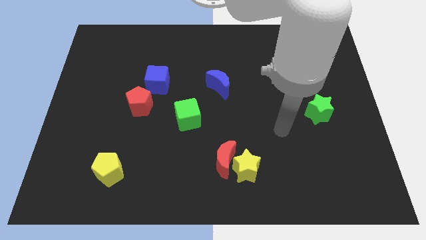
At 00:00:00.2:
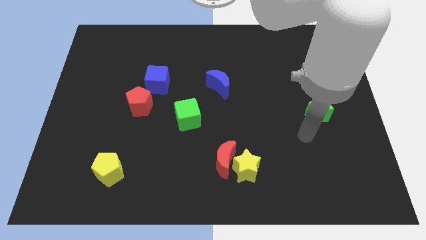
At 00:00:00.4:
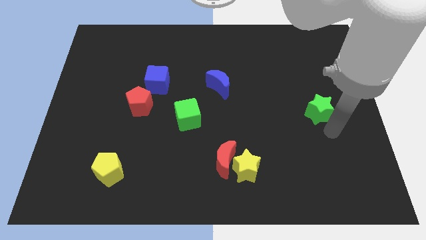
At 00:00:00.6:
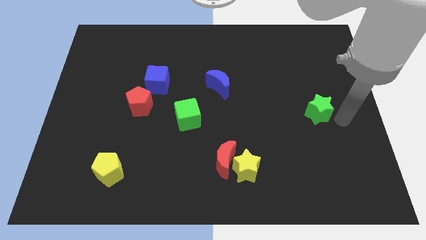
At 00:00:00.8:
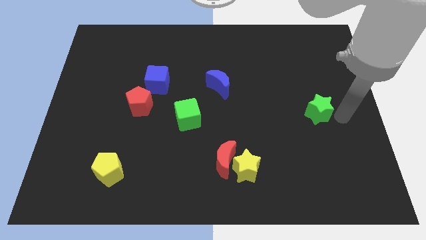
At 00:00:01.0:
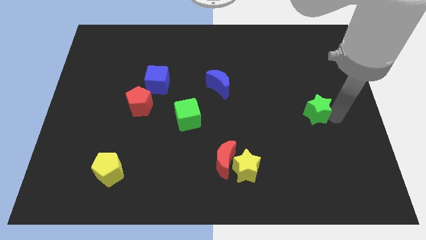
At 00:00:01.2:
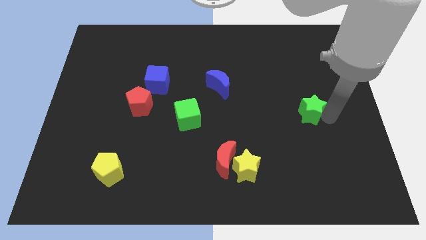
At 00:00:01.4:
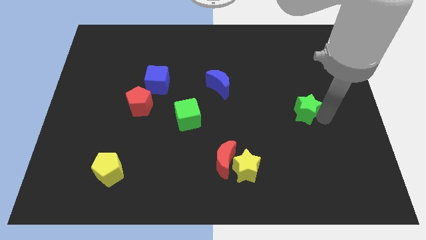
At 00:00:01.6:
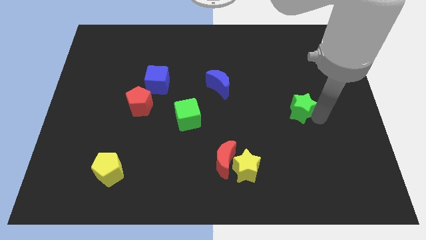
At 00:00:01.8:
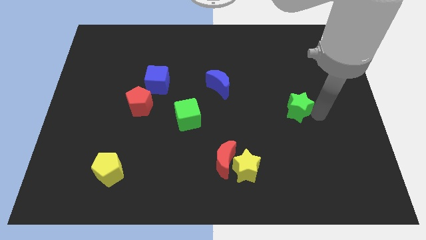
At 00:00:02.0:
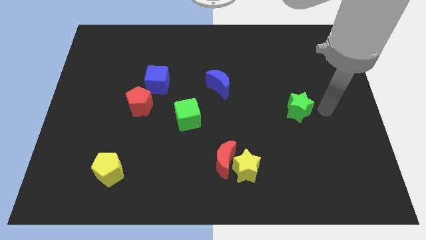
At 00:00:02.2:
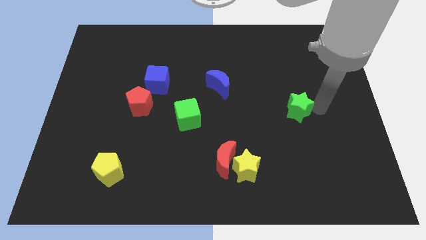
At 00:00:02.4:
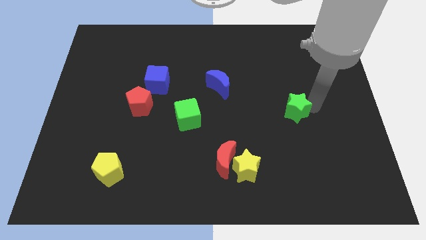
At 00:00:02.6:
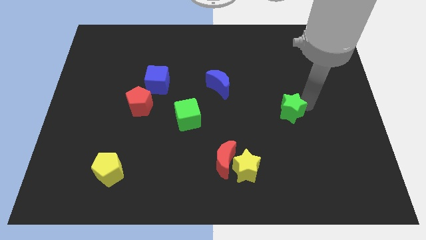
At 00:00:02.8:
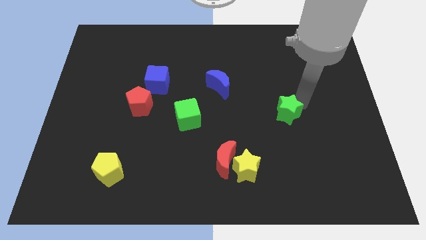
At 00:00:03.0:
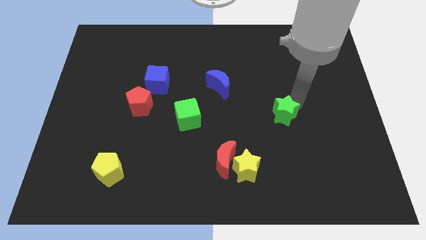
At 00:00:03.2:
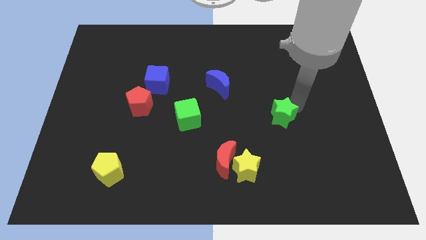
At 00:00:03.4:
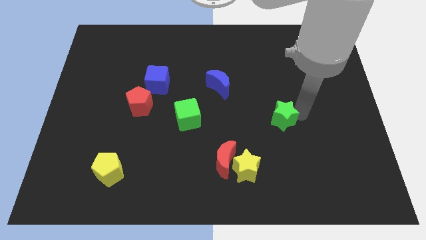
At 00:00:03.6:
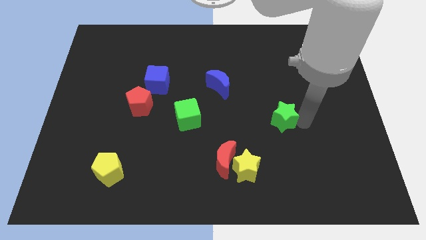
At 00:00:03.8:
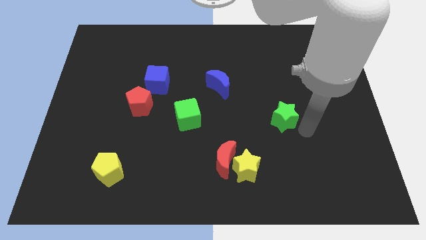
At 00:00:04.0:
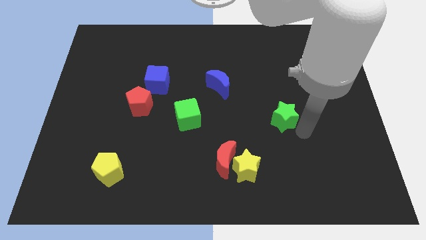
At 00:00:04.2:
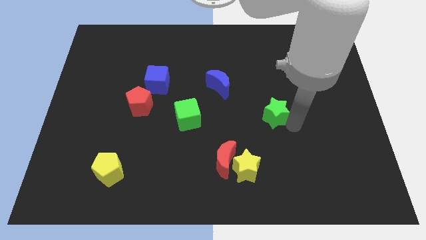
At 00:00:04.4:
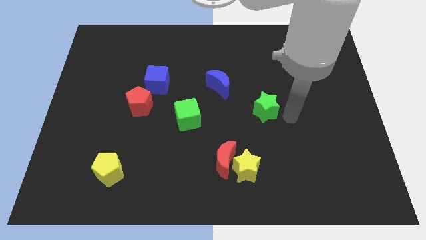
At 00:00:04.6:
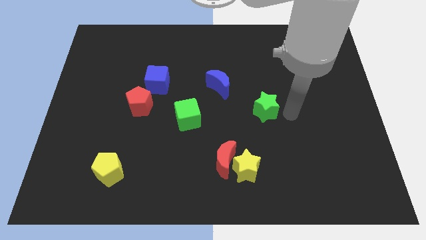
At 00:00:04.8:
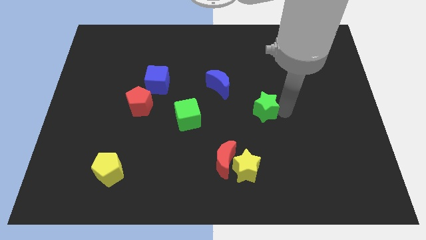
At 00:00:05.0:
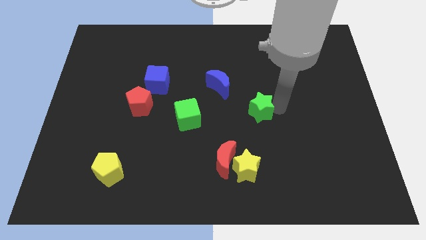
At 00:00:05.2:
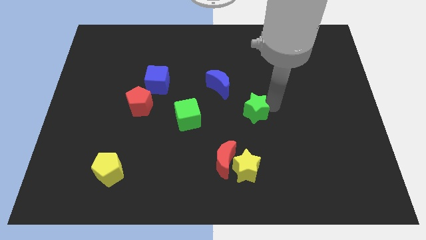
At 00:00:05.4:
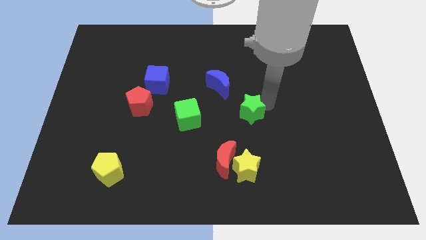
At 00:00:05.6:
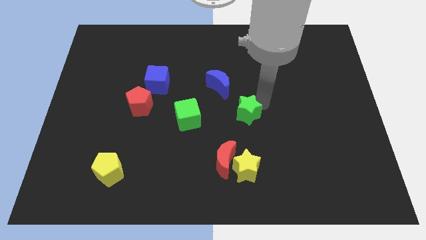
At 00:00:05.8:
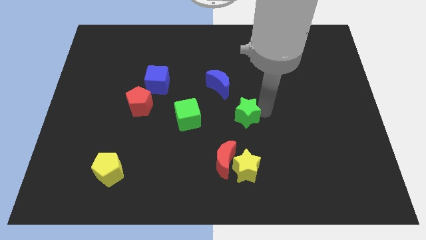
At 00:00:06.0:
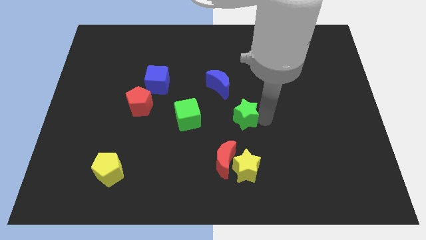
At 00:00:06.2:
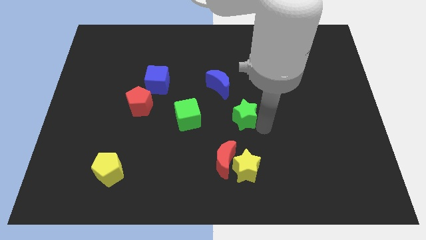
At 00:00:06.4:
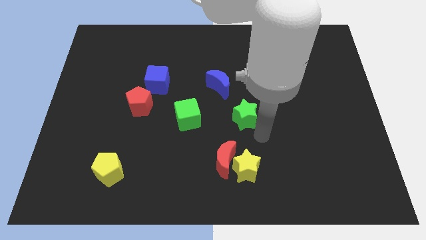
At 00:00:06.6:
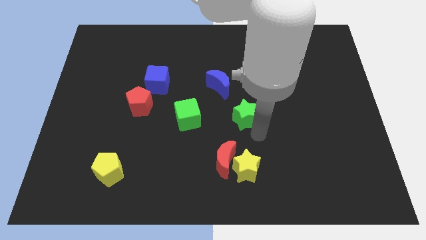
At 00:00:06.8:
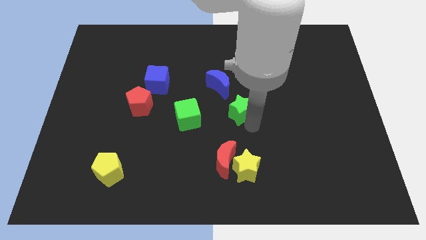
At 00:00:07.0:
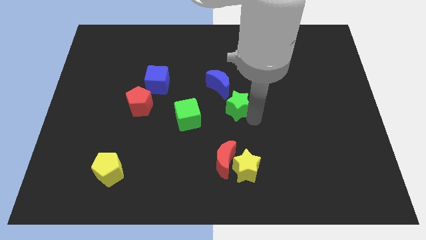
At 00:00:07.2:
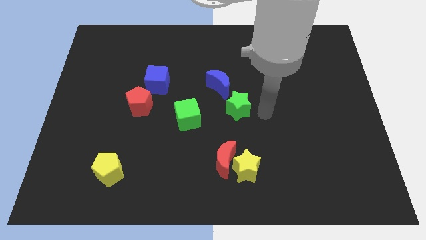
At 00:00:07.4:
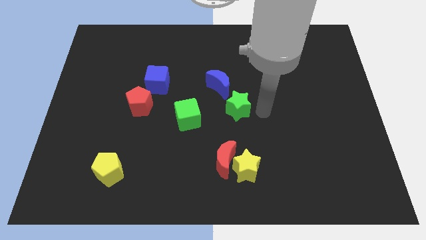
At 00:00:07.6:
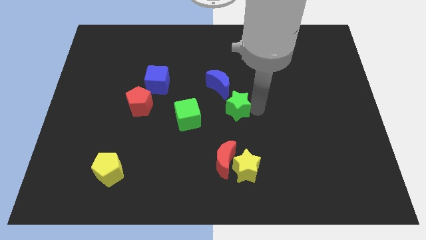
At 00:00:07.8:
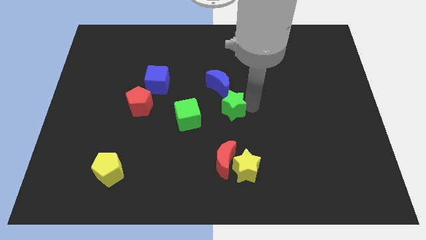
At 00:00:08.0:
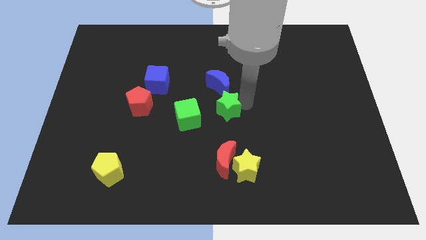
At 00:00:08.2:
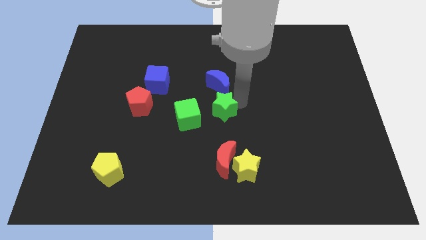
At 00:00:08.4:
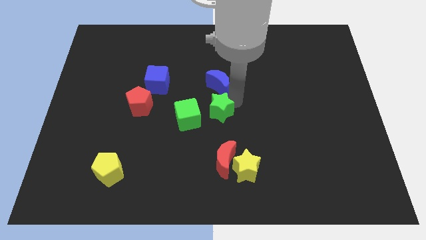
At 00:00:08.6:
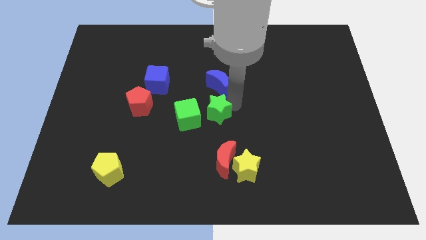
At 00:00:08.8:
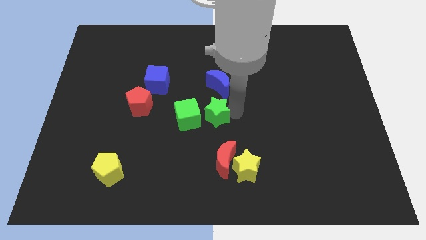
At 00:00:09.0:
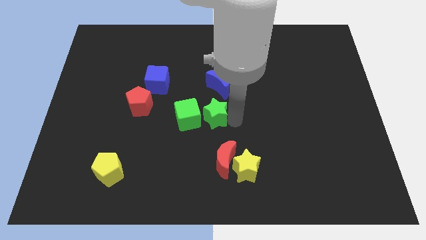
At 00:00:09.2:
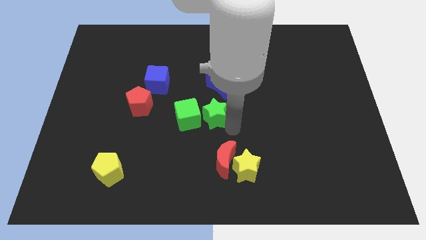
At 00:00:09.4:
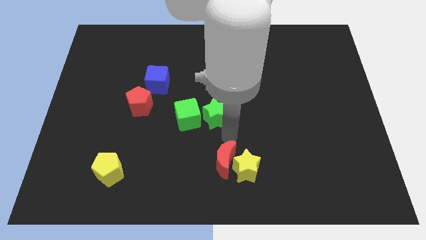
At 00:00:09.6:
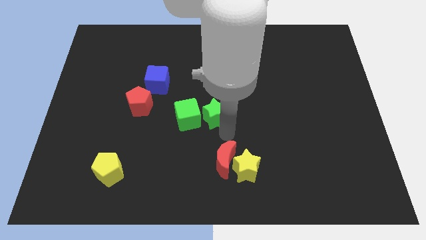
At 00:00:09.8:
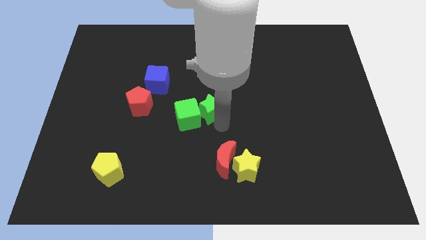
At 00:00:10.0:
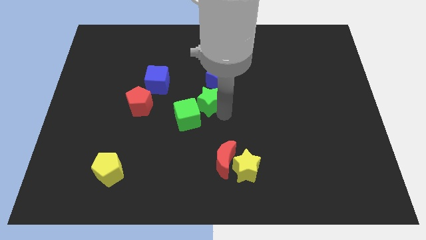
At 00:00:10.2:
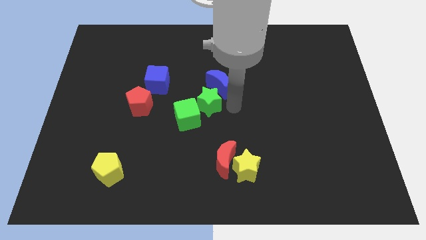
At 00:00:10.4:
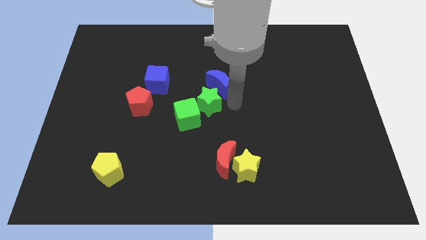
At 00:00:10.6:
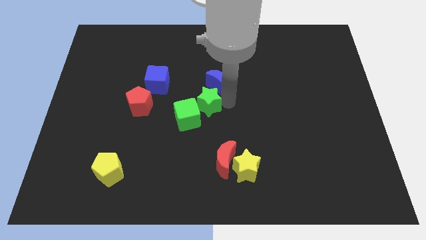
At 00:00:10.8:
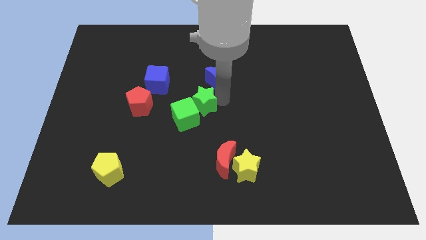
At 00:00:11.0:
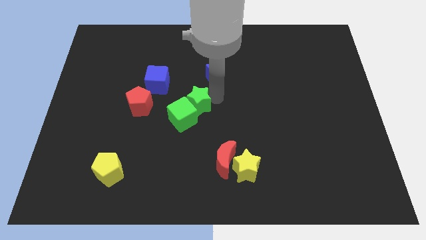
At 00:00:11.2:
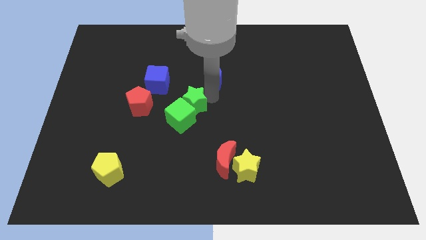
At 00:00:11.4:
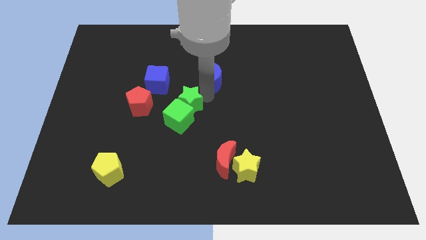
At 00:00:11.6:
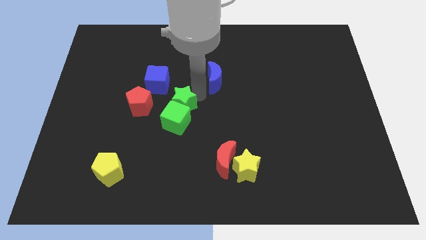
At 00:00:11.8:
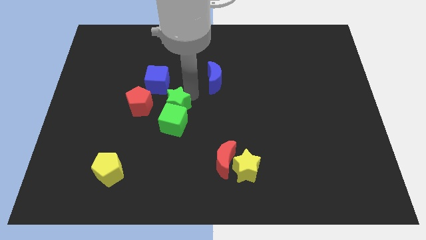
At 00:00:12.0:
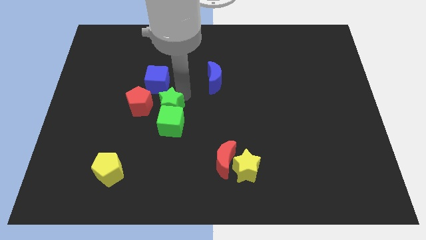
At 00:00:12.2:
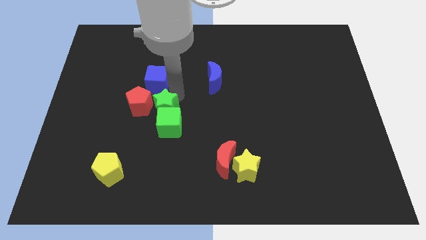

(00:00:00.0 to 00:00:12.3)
slide the green star next to the red pentagon

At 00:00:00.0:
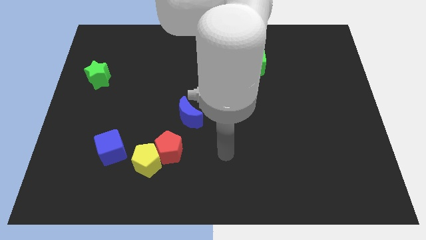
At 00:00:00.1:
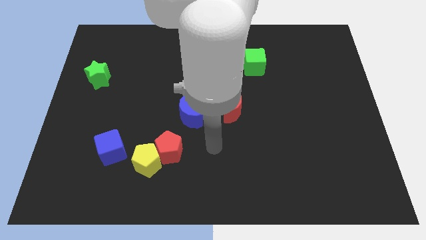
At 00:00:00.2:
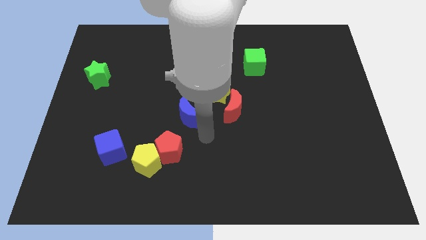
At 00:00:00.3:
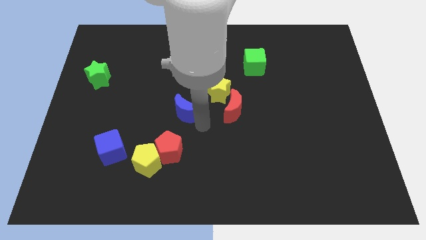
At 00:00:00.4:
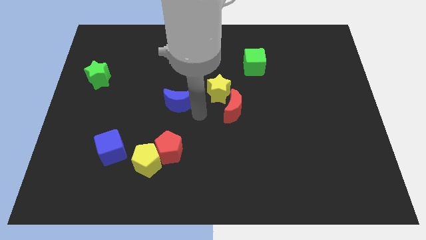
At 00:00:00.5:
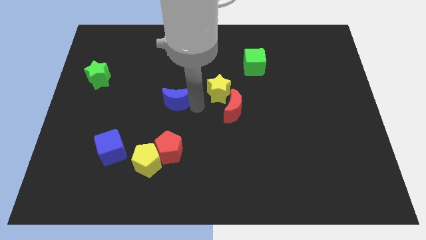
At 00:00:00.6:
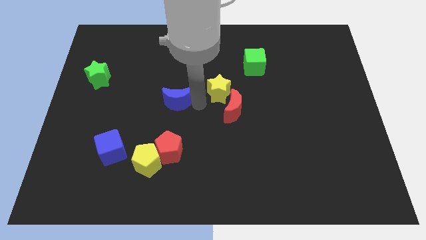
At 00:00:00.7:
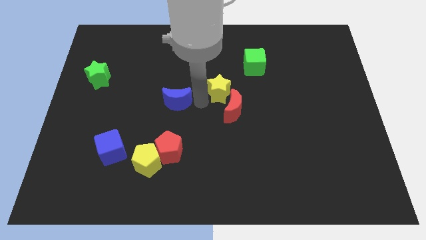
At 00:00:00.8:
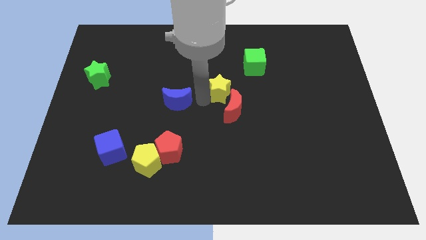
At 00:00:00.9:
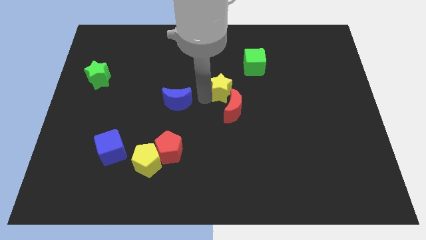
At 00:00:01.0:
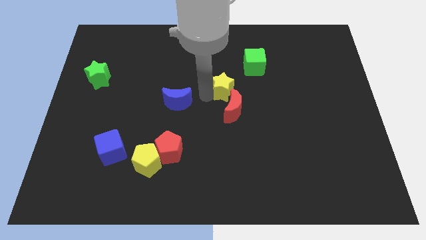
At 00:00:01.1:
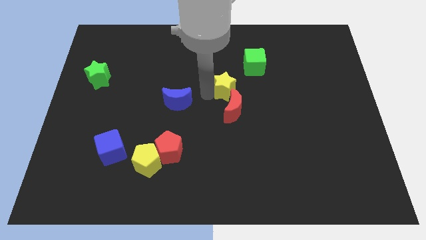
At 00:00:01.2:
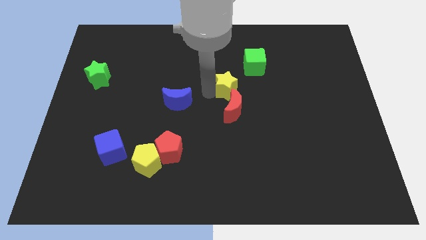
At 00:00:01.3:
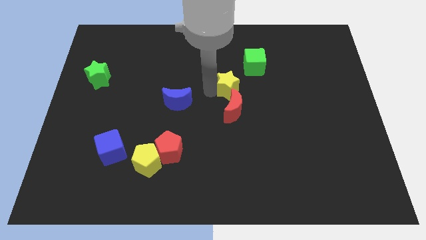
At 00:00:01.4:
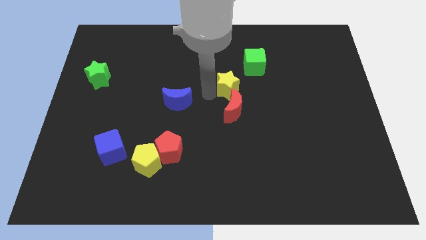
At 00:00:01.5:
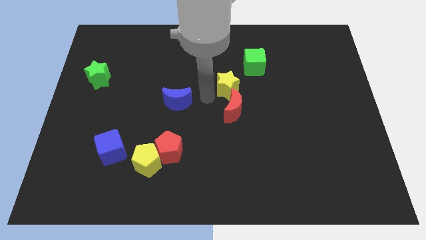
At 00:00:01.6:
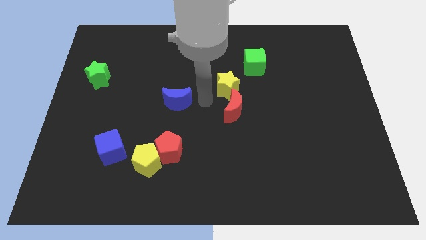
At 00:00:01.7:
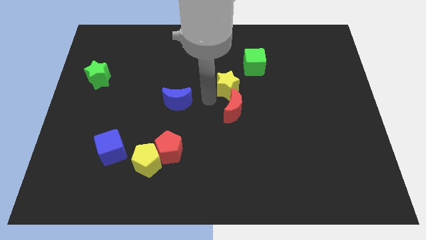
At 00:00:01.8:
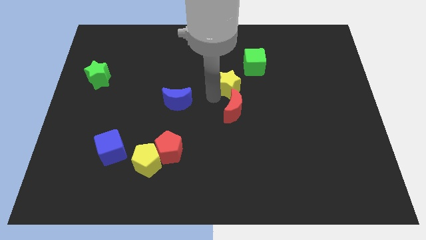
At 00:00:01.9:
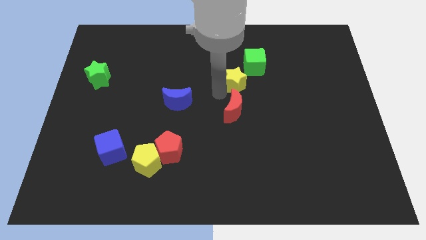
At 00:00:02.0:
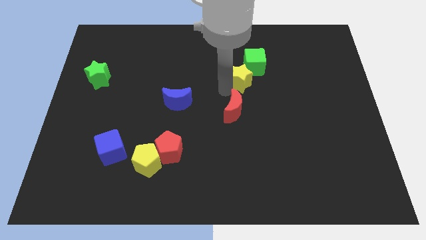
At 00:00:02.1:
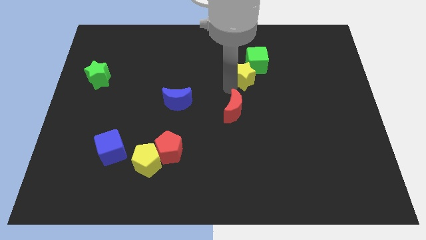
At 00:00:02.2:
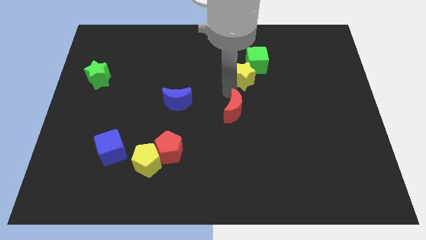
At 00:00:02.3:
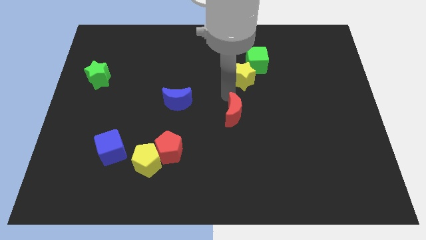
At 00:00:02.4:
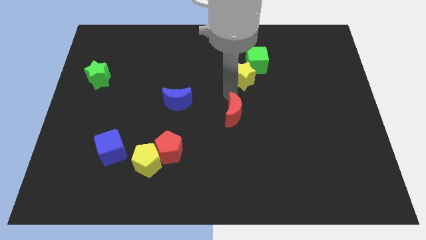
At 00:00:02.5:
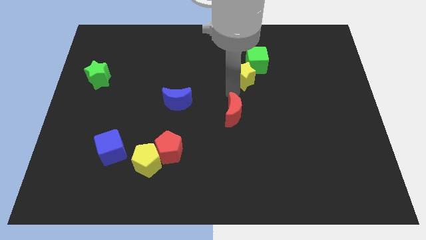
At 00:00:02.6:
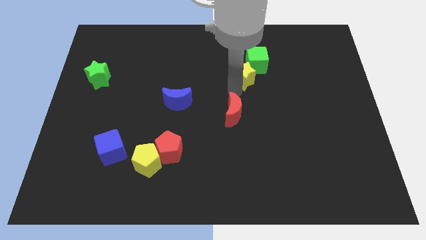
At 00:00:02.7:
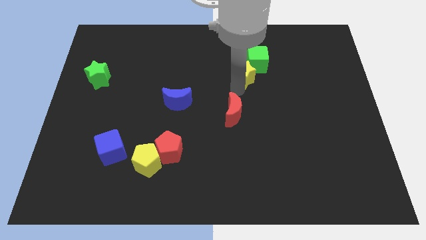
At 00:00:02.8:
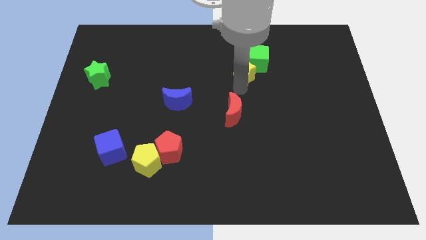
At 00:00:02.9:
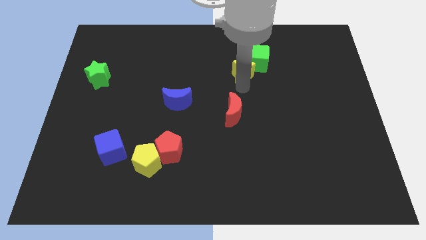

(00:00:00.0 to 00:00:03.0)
push the yellow star towards the green cube
